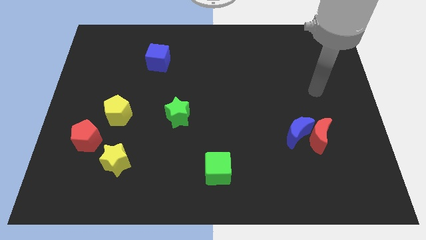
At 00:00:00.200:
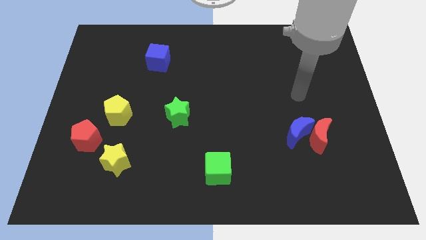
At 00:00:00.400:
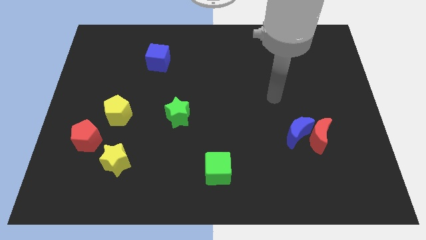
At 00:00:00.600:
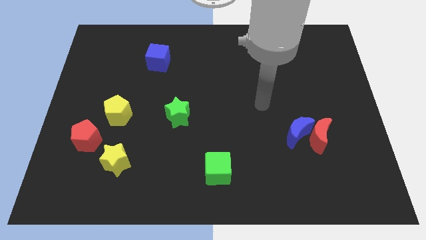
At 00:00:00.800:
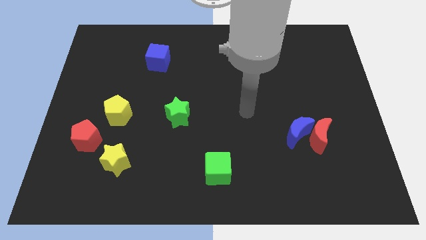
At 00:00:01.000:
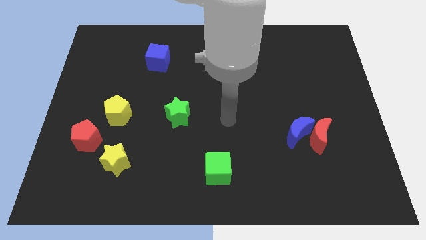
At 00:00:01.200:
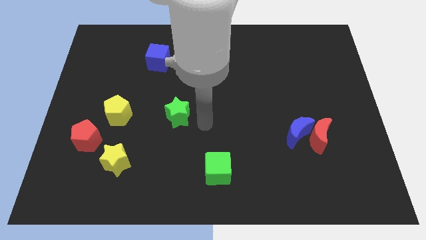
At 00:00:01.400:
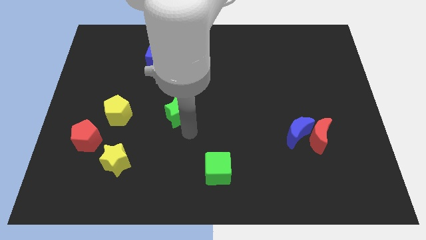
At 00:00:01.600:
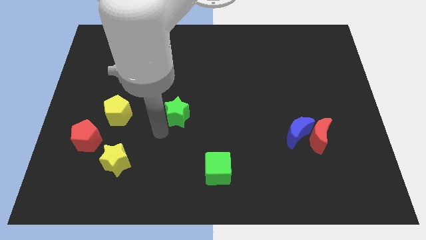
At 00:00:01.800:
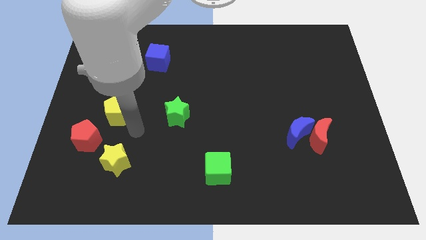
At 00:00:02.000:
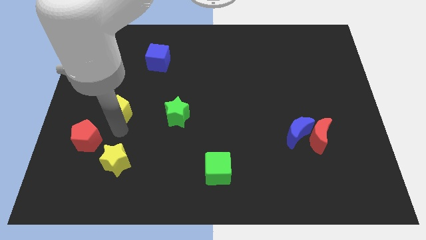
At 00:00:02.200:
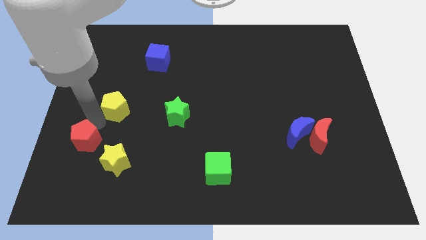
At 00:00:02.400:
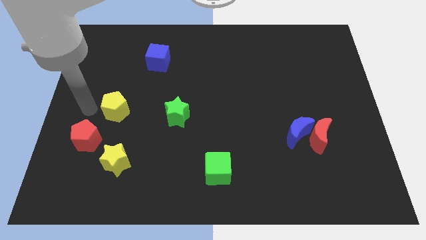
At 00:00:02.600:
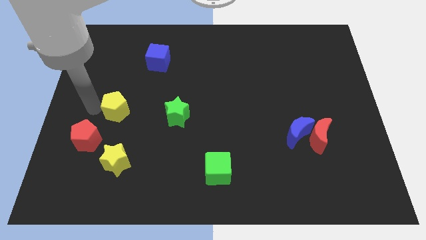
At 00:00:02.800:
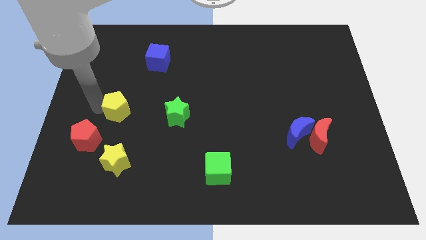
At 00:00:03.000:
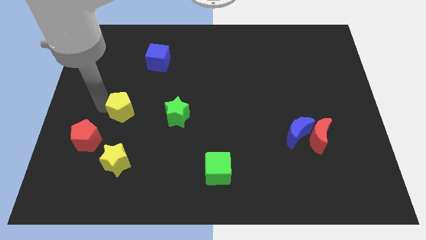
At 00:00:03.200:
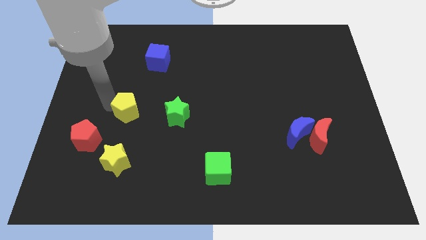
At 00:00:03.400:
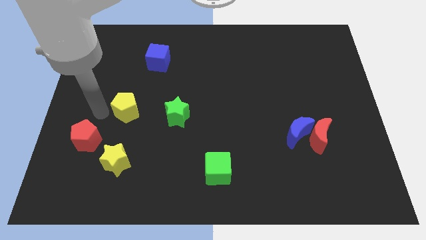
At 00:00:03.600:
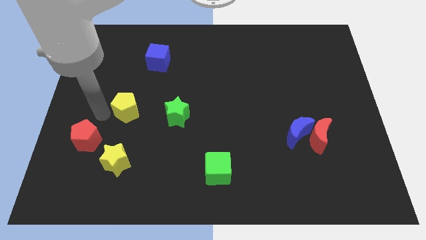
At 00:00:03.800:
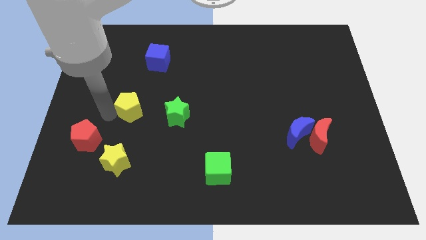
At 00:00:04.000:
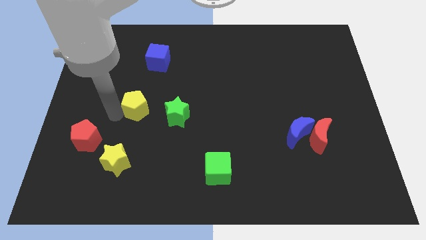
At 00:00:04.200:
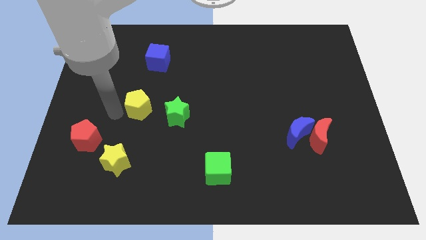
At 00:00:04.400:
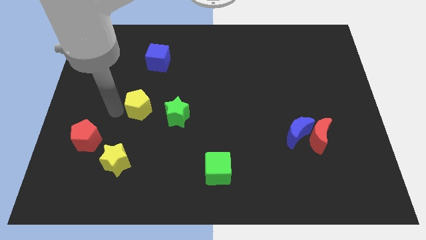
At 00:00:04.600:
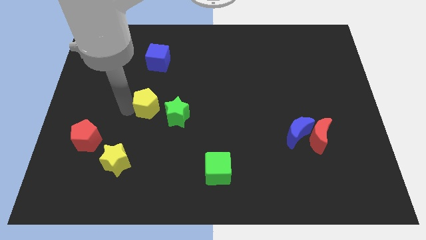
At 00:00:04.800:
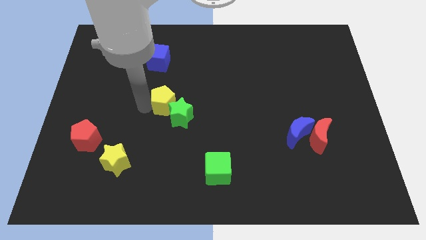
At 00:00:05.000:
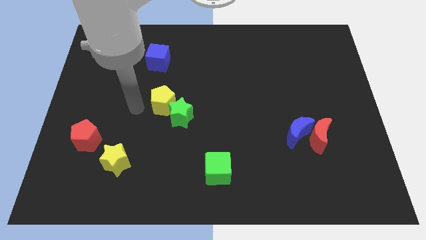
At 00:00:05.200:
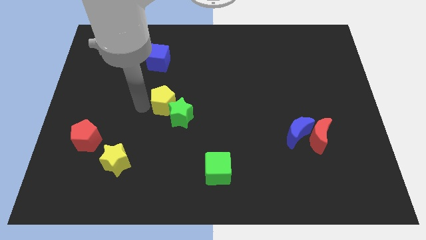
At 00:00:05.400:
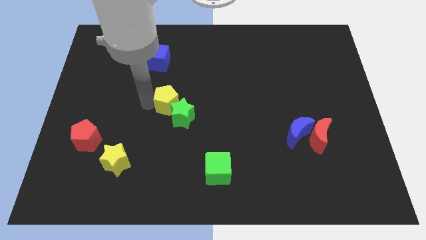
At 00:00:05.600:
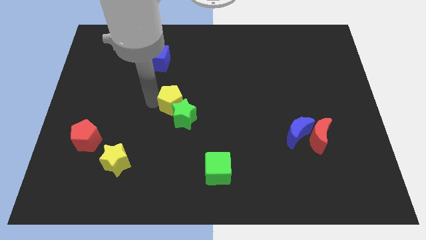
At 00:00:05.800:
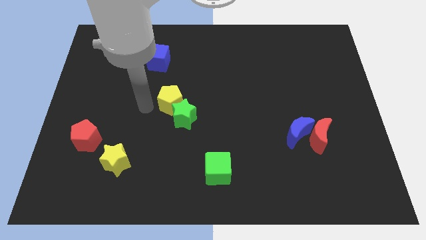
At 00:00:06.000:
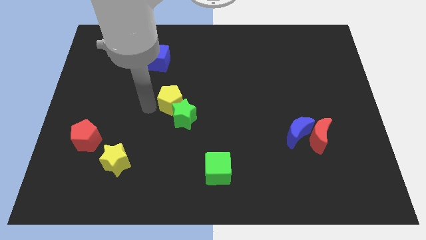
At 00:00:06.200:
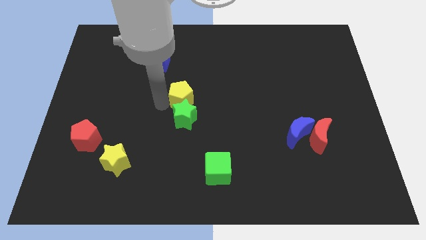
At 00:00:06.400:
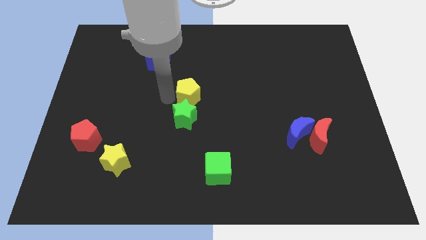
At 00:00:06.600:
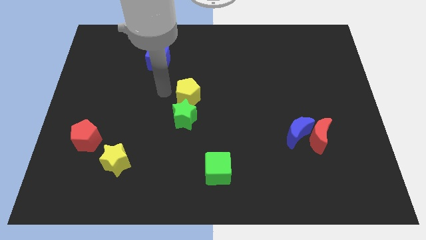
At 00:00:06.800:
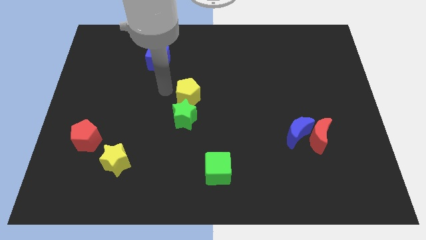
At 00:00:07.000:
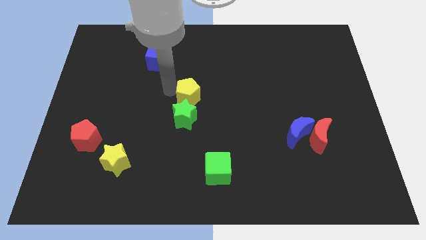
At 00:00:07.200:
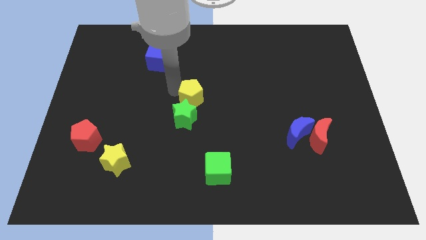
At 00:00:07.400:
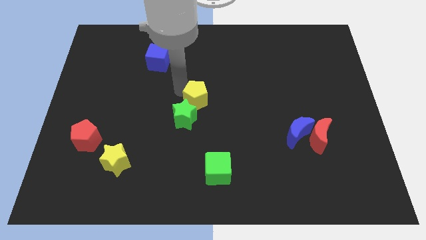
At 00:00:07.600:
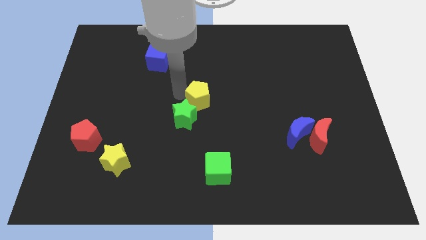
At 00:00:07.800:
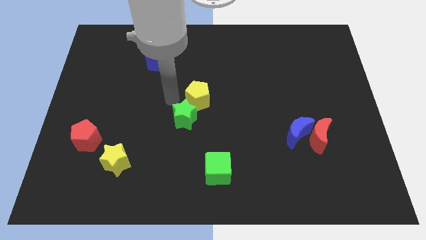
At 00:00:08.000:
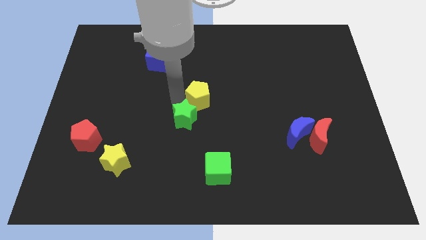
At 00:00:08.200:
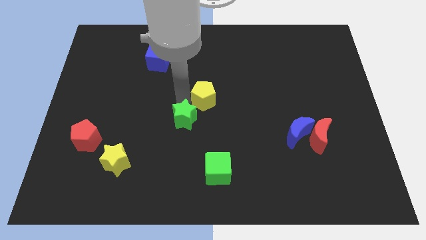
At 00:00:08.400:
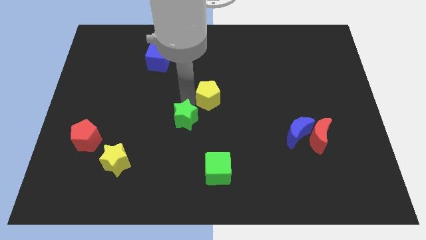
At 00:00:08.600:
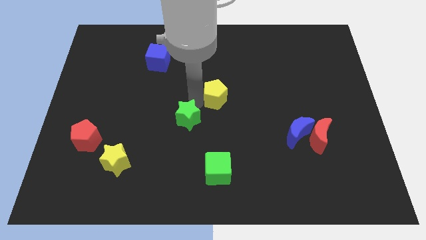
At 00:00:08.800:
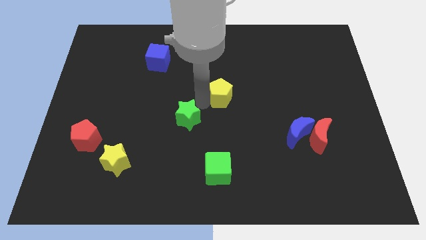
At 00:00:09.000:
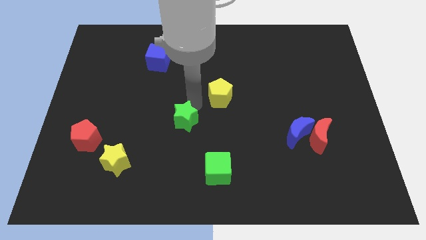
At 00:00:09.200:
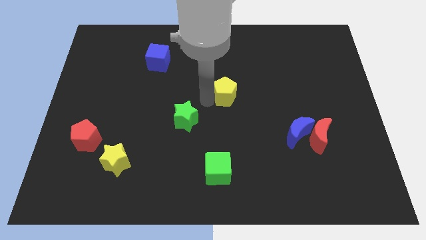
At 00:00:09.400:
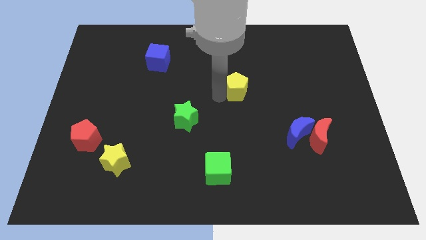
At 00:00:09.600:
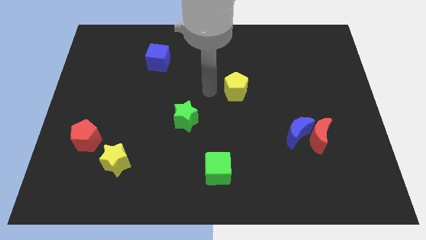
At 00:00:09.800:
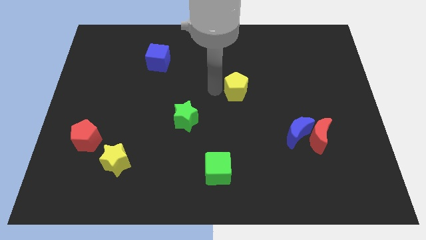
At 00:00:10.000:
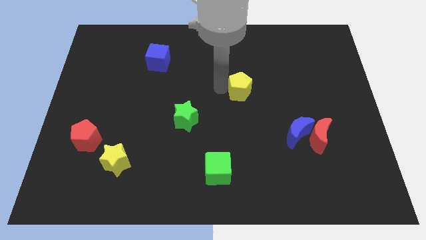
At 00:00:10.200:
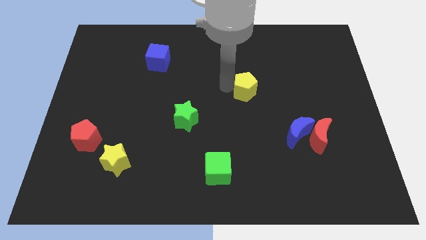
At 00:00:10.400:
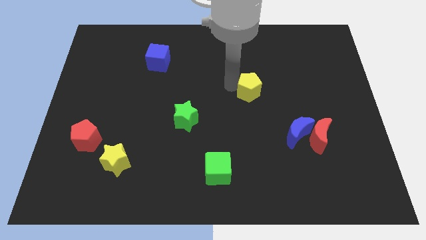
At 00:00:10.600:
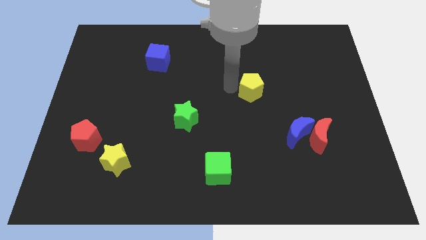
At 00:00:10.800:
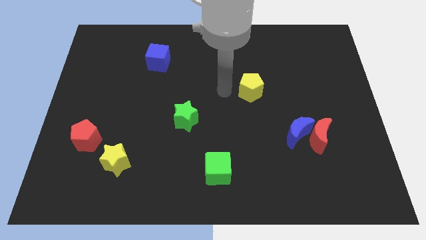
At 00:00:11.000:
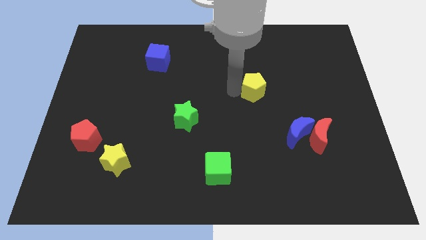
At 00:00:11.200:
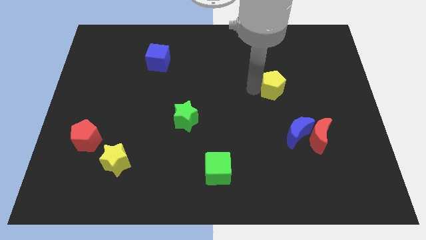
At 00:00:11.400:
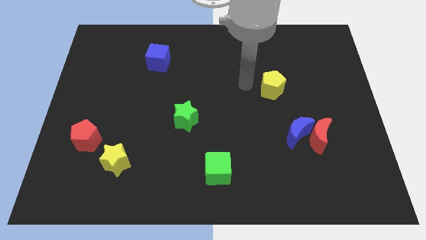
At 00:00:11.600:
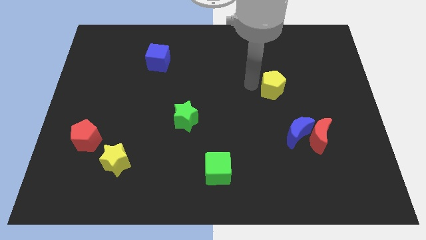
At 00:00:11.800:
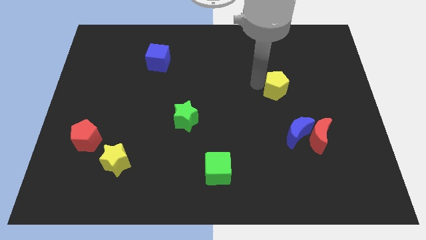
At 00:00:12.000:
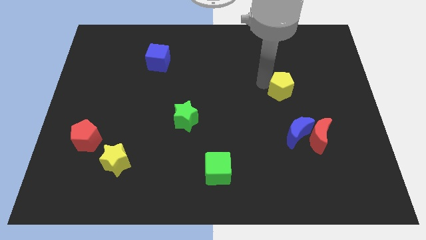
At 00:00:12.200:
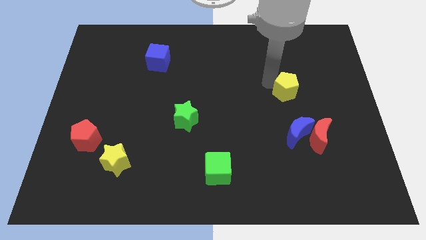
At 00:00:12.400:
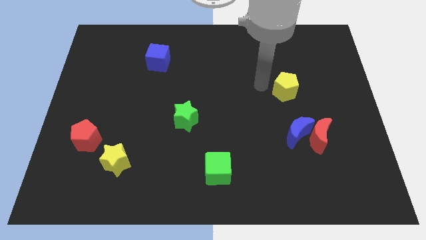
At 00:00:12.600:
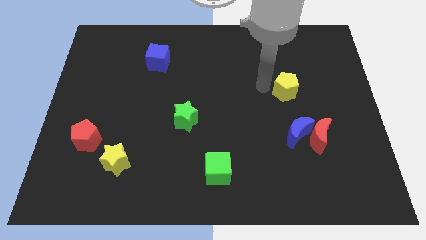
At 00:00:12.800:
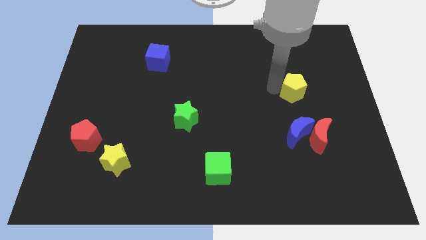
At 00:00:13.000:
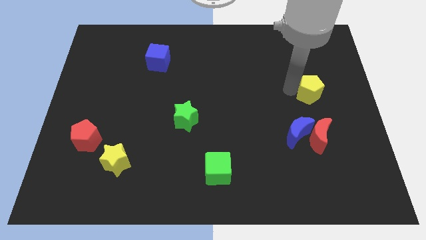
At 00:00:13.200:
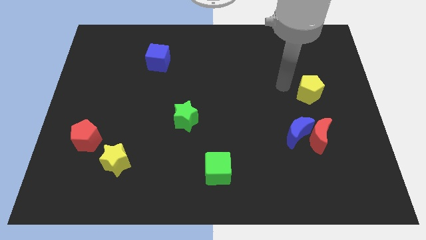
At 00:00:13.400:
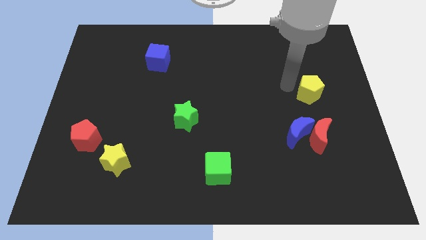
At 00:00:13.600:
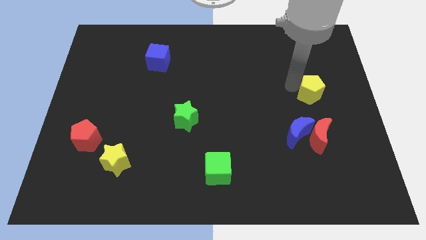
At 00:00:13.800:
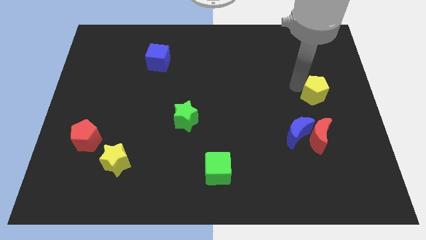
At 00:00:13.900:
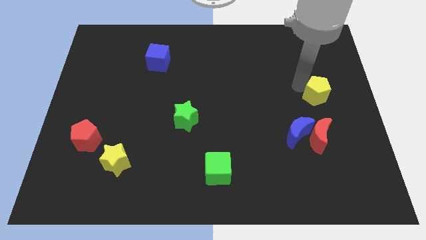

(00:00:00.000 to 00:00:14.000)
put the yellow pentagon to the right side of the board
